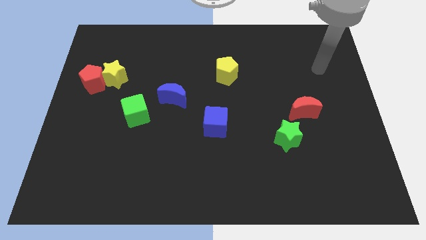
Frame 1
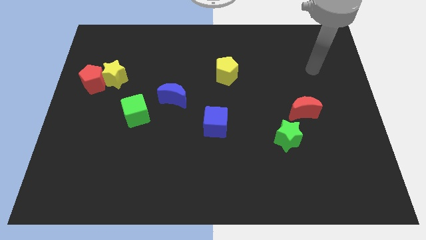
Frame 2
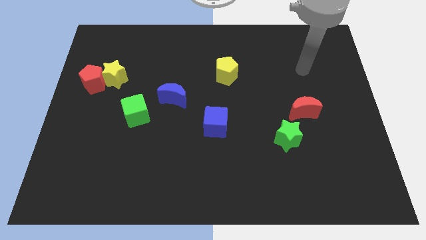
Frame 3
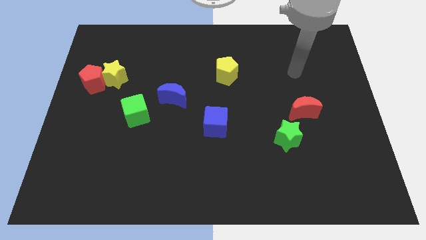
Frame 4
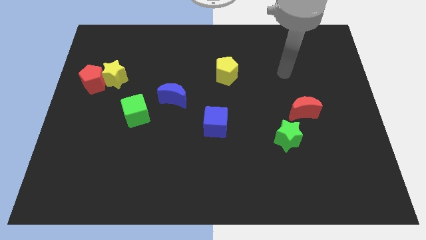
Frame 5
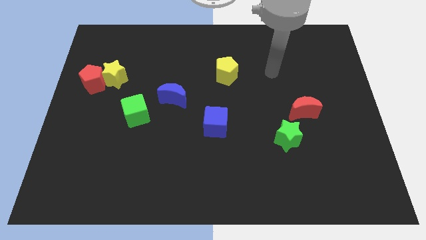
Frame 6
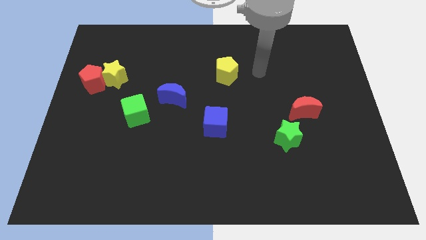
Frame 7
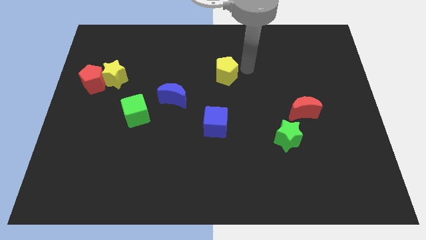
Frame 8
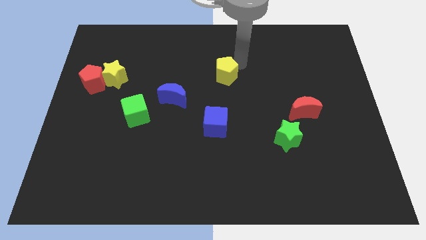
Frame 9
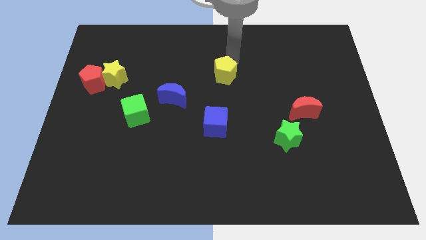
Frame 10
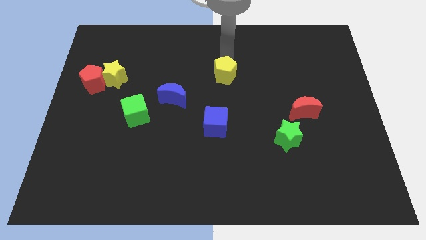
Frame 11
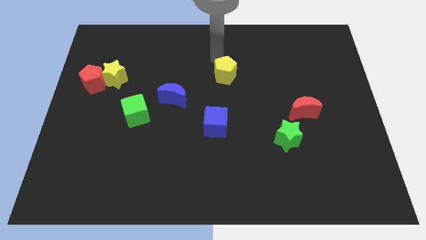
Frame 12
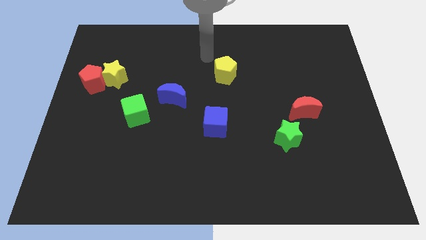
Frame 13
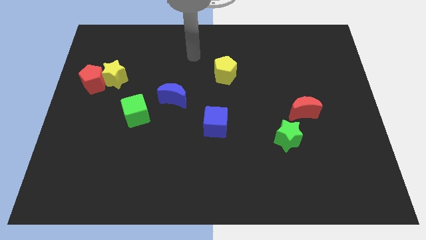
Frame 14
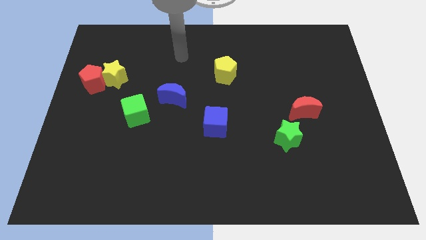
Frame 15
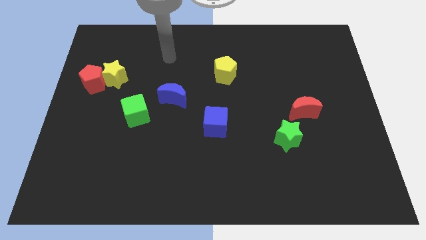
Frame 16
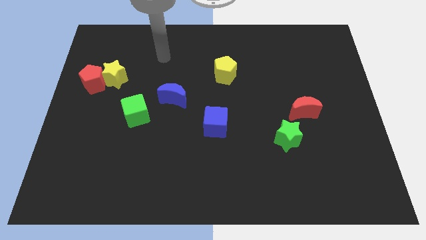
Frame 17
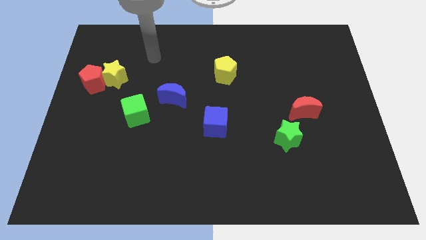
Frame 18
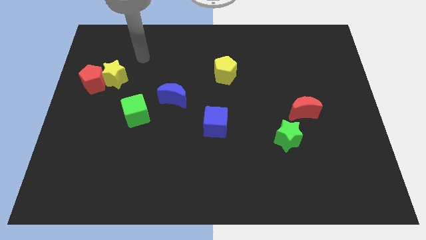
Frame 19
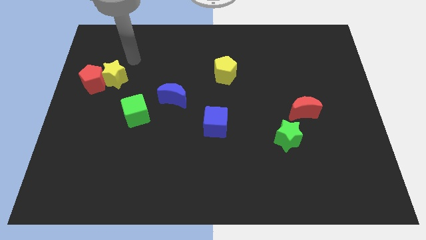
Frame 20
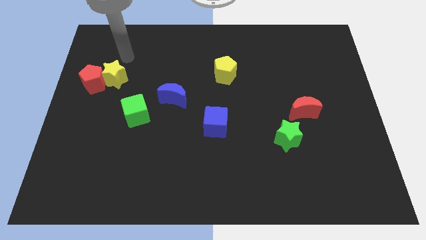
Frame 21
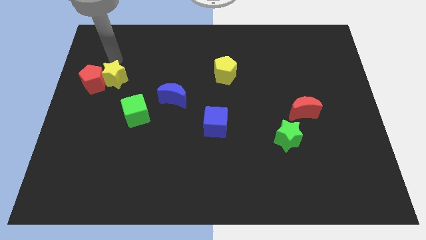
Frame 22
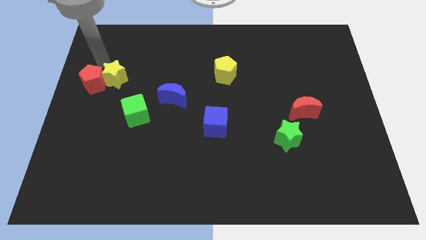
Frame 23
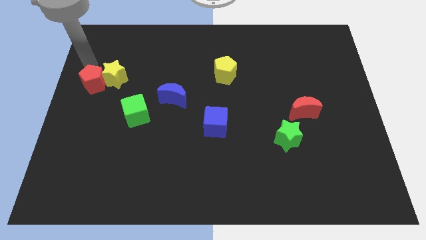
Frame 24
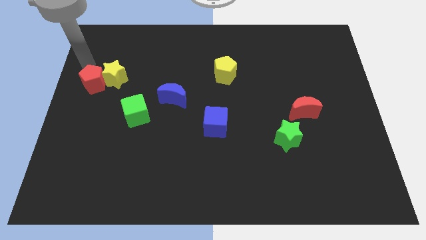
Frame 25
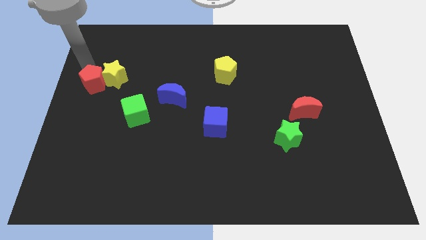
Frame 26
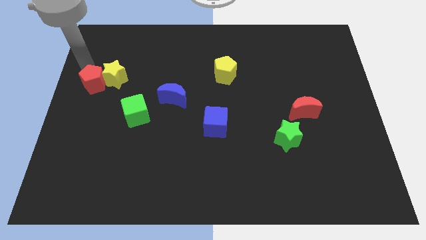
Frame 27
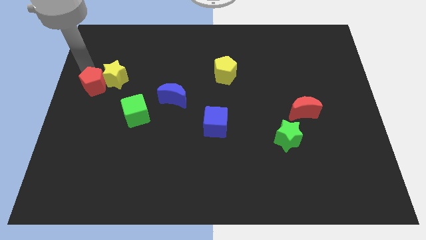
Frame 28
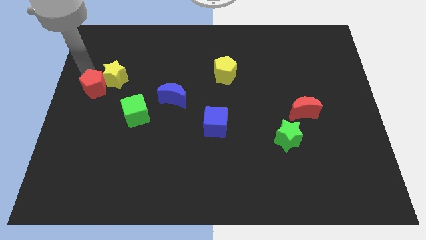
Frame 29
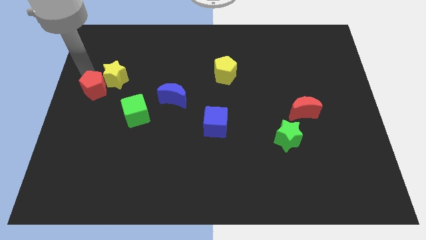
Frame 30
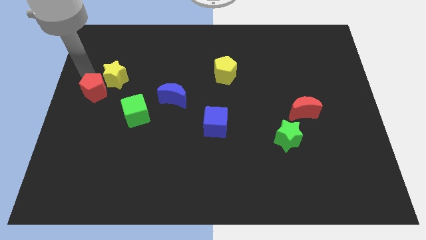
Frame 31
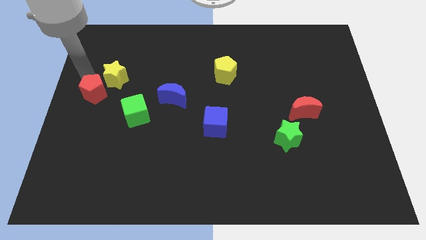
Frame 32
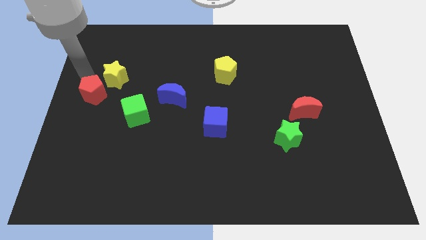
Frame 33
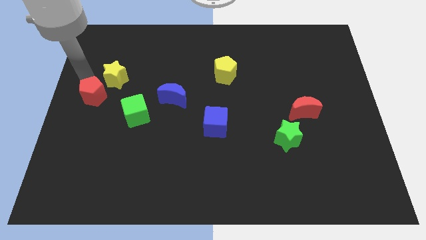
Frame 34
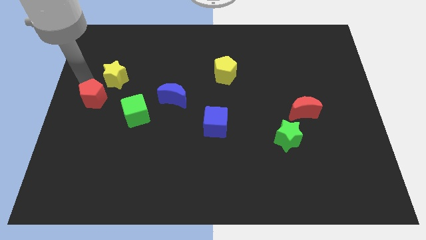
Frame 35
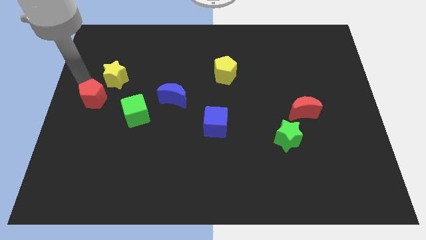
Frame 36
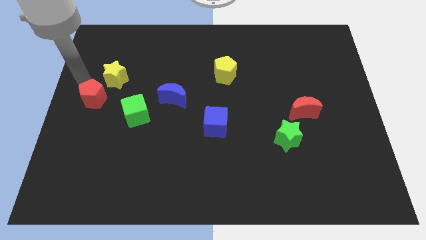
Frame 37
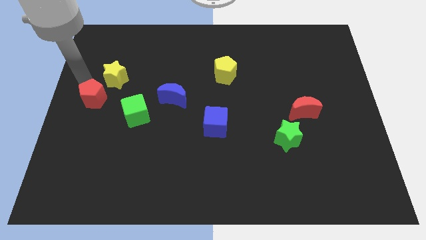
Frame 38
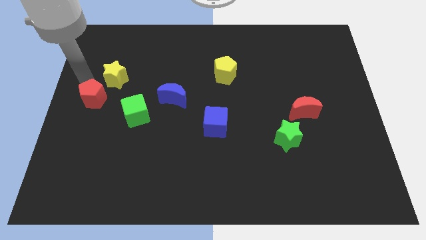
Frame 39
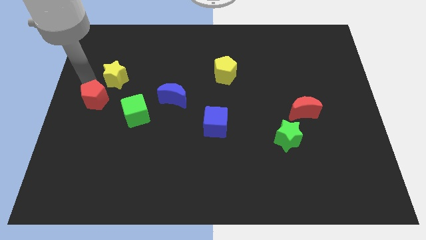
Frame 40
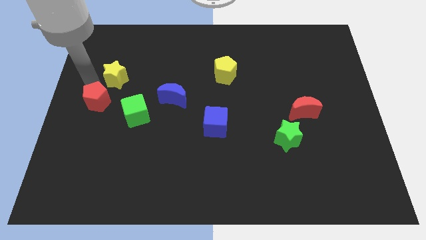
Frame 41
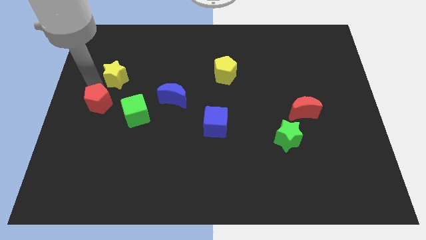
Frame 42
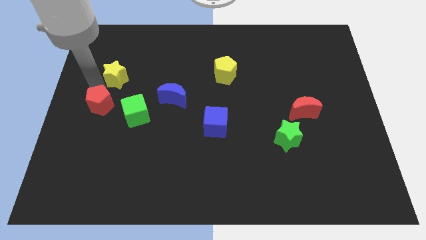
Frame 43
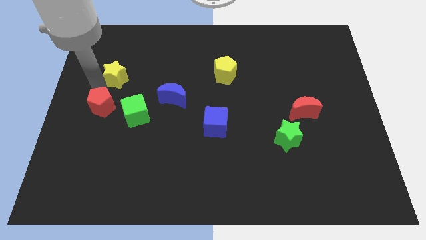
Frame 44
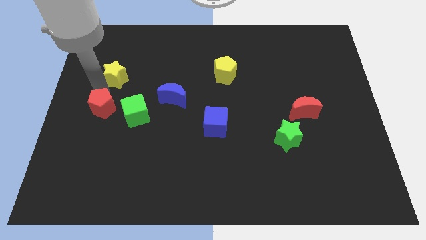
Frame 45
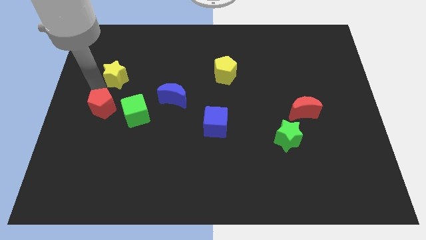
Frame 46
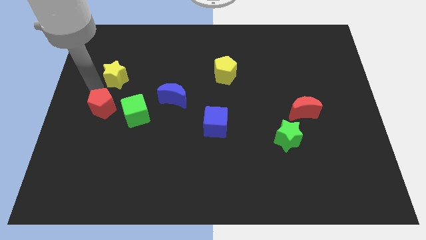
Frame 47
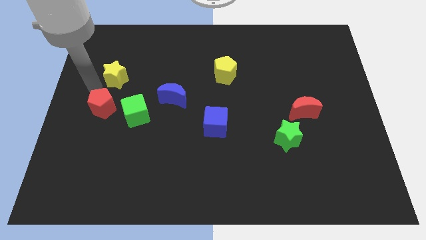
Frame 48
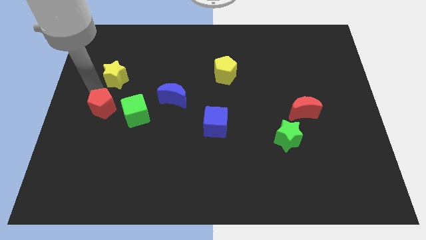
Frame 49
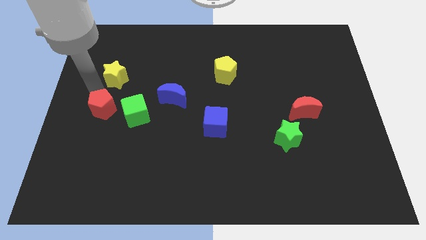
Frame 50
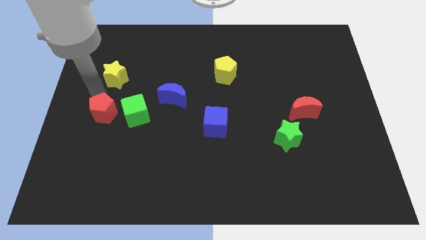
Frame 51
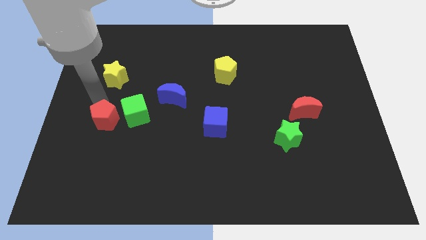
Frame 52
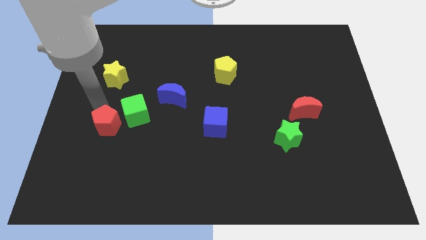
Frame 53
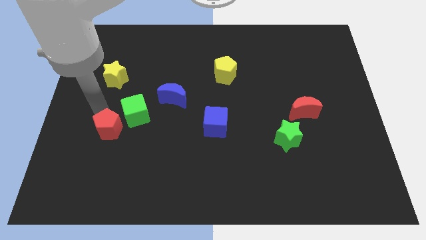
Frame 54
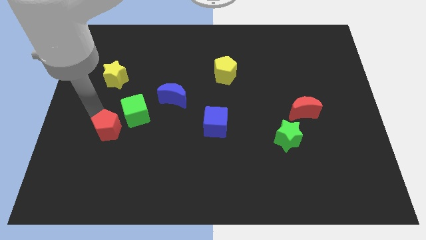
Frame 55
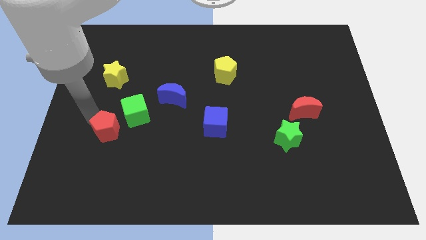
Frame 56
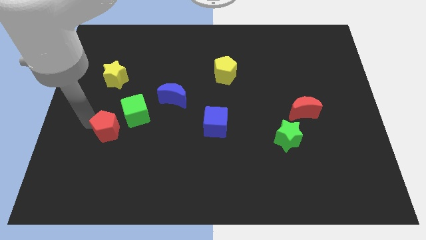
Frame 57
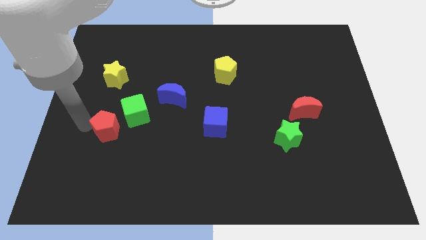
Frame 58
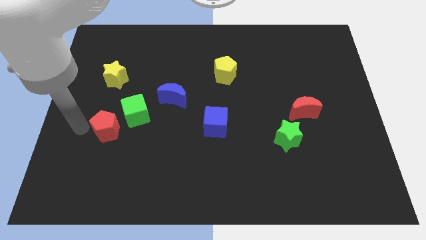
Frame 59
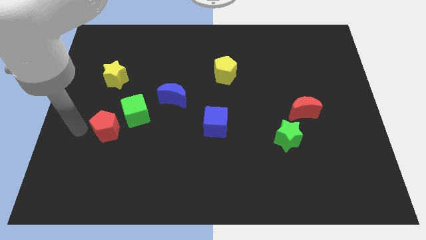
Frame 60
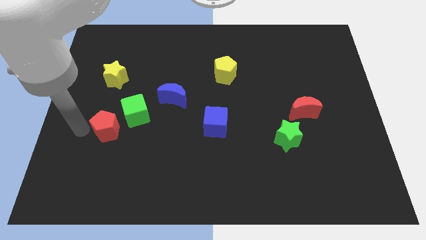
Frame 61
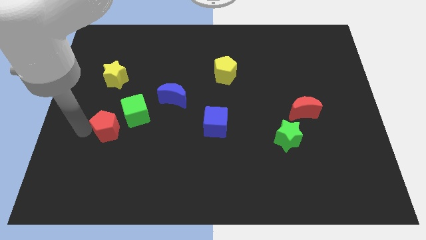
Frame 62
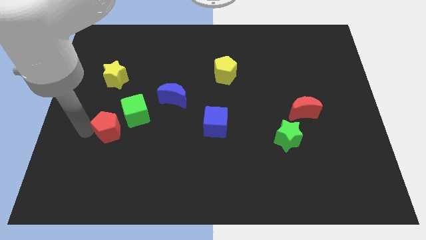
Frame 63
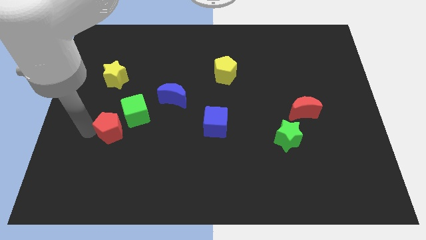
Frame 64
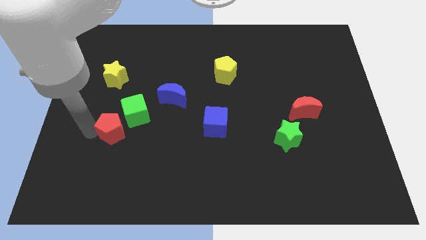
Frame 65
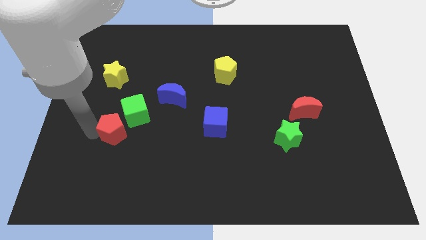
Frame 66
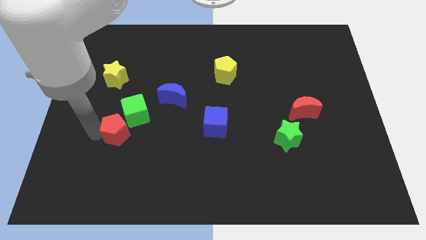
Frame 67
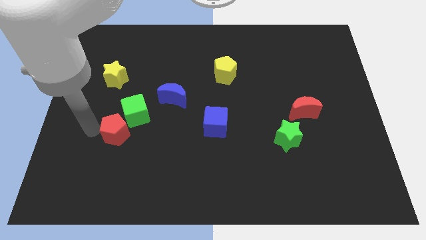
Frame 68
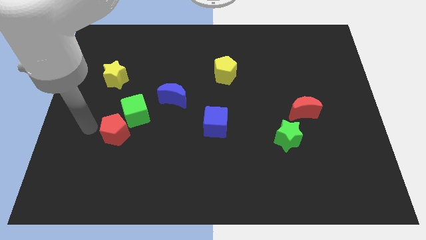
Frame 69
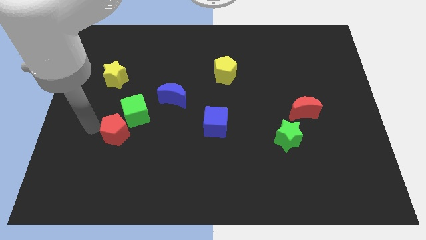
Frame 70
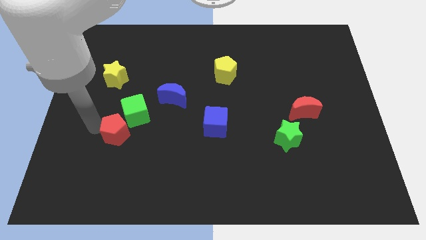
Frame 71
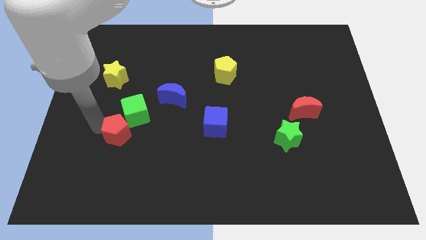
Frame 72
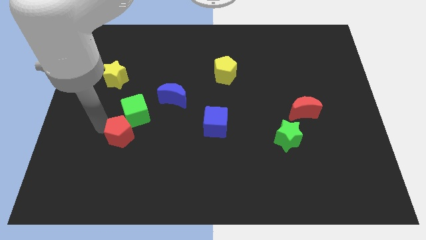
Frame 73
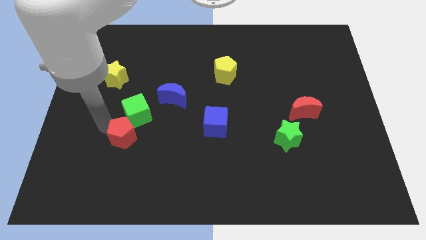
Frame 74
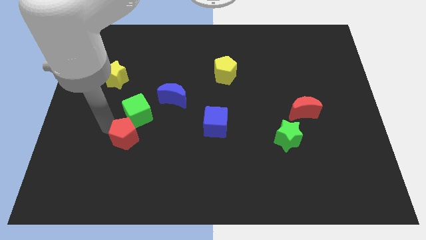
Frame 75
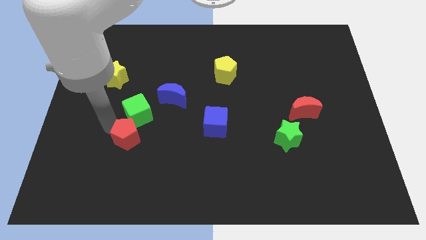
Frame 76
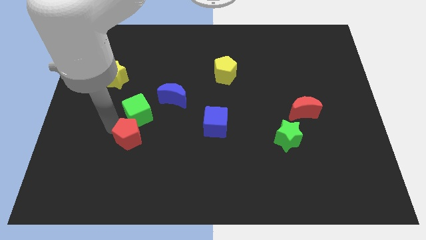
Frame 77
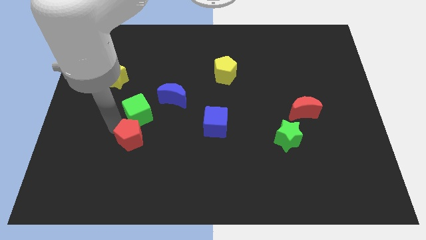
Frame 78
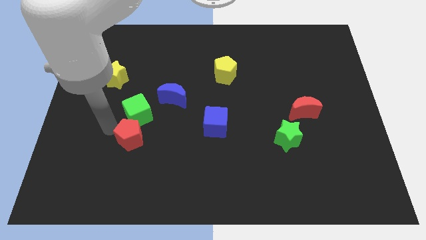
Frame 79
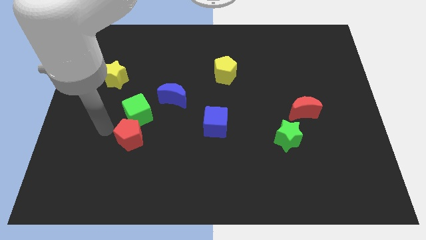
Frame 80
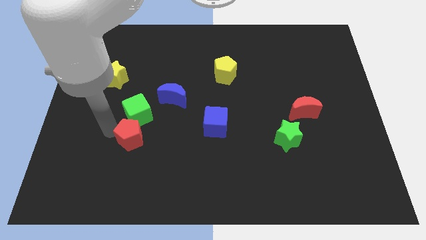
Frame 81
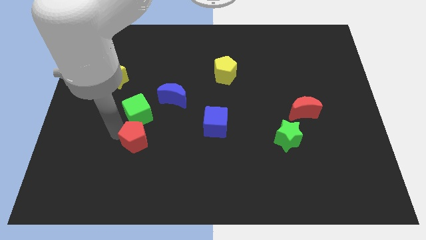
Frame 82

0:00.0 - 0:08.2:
slide the red pentagon downwards and then right
